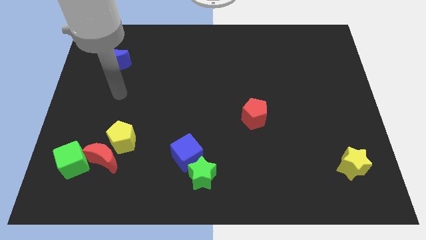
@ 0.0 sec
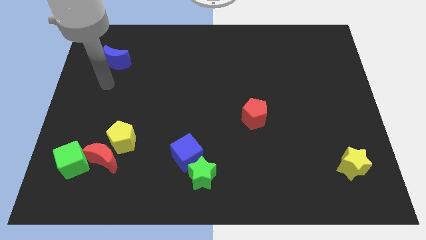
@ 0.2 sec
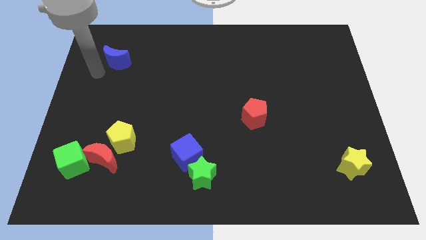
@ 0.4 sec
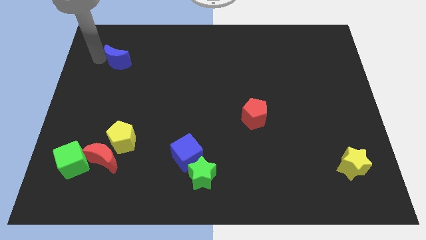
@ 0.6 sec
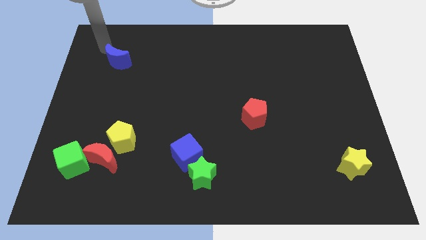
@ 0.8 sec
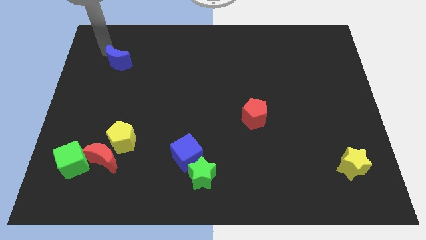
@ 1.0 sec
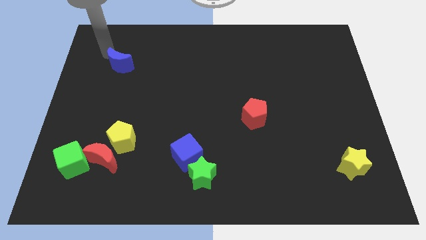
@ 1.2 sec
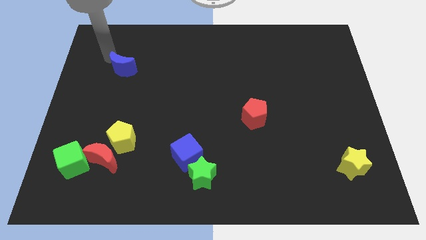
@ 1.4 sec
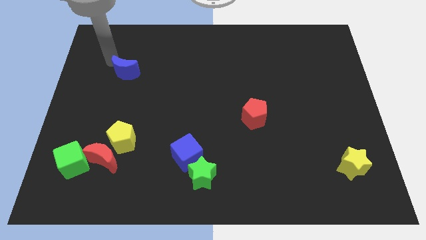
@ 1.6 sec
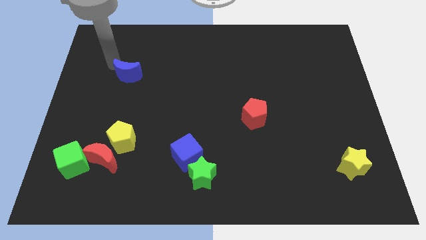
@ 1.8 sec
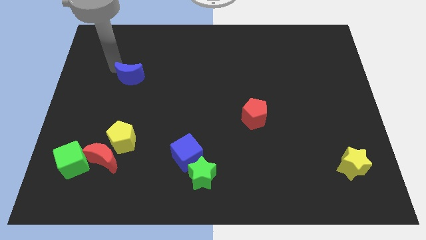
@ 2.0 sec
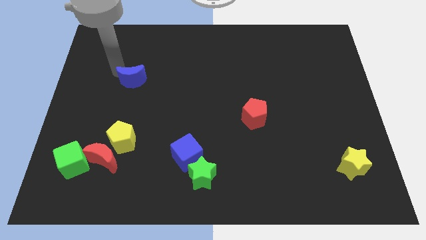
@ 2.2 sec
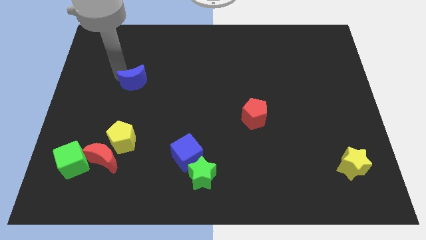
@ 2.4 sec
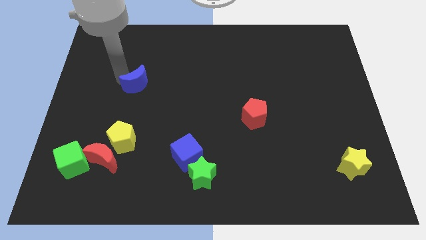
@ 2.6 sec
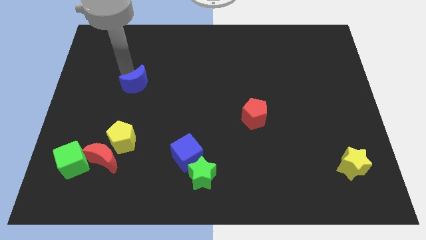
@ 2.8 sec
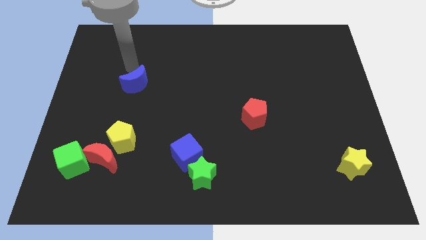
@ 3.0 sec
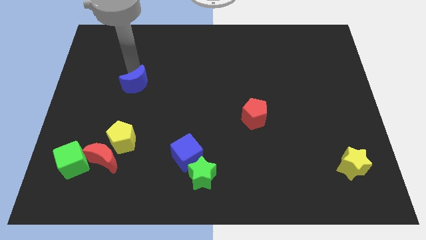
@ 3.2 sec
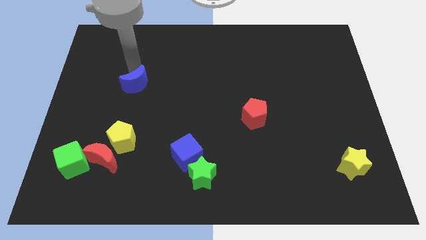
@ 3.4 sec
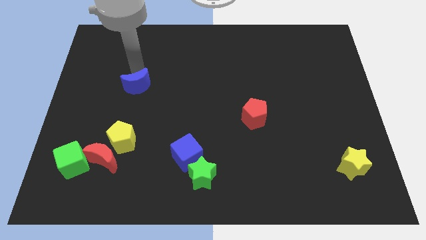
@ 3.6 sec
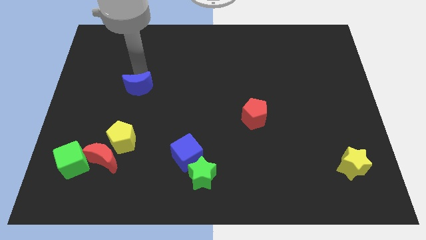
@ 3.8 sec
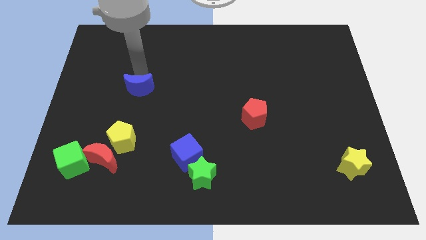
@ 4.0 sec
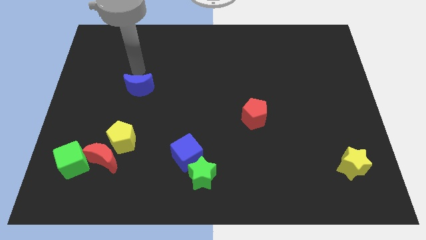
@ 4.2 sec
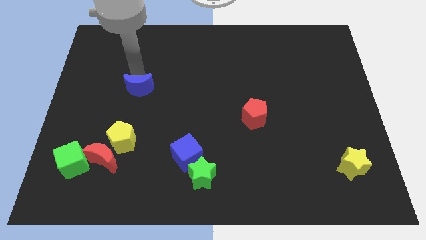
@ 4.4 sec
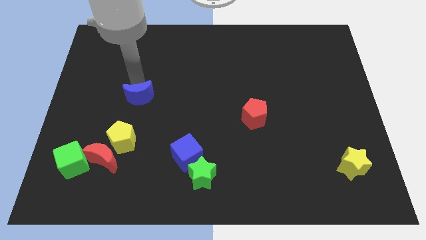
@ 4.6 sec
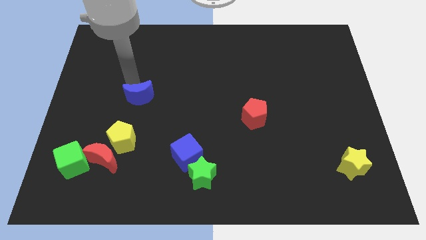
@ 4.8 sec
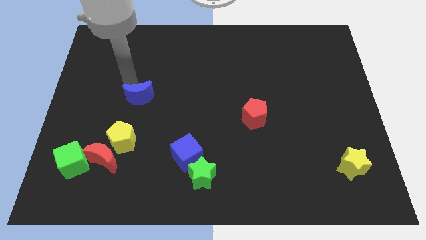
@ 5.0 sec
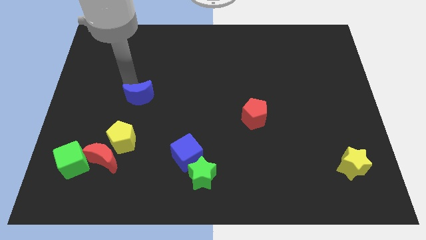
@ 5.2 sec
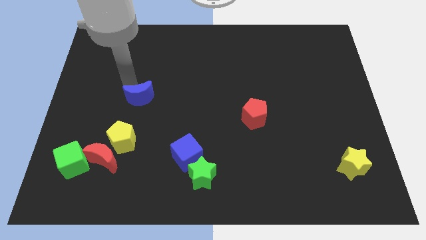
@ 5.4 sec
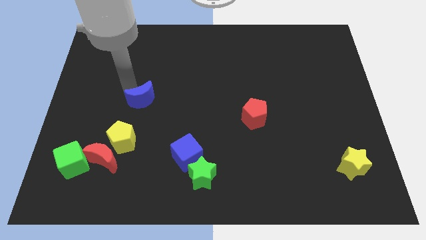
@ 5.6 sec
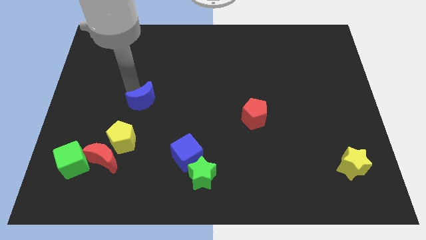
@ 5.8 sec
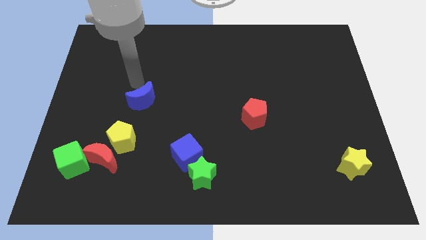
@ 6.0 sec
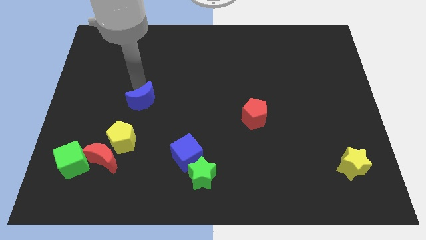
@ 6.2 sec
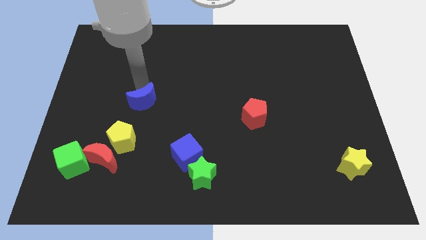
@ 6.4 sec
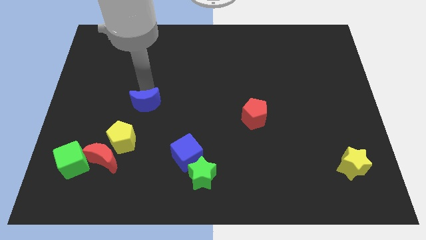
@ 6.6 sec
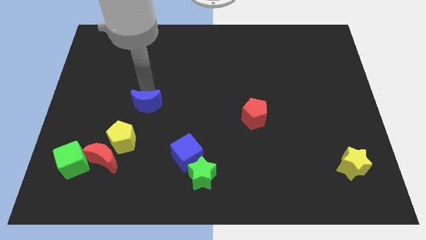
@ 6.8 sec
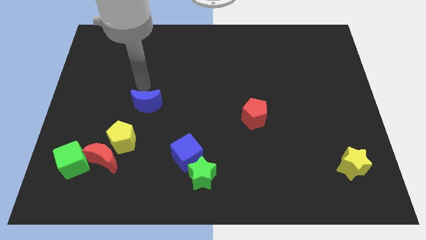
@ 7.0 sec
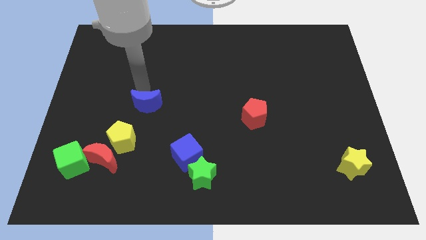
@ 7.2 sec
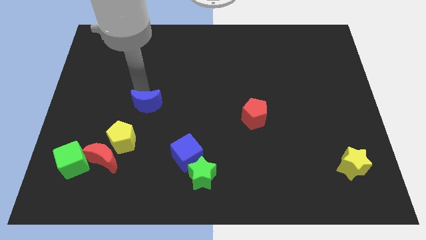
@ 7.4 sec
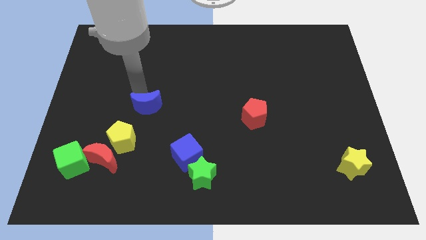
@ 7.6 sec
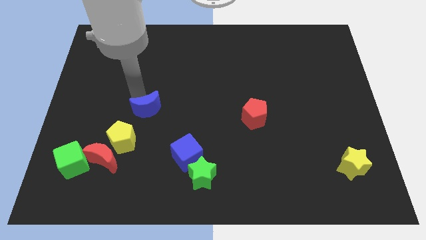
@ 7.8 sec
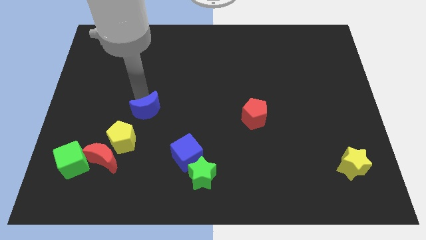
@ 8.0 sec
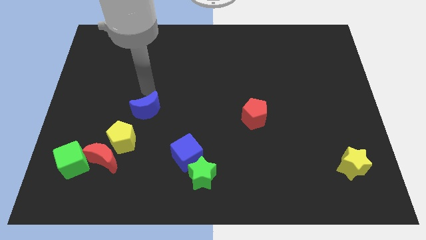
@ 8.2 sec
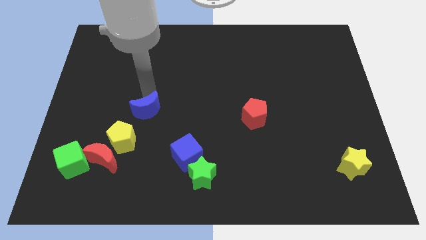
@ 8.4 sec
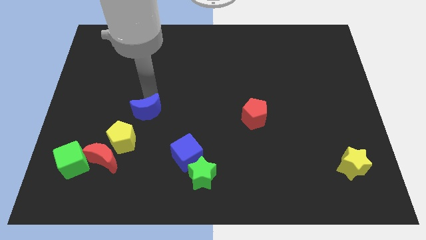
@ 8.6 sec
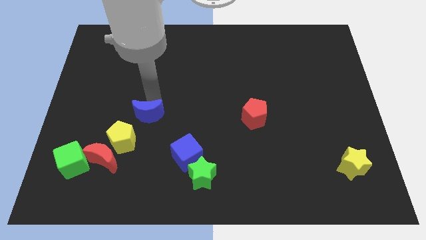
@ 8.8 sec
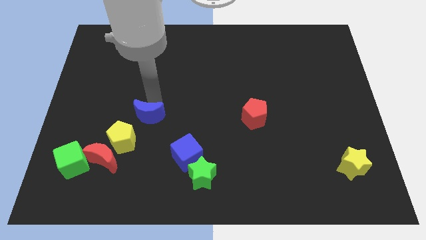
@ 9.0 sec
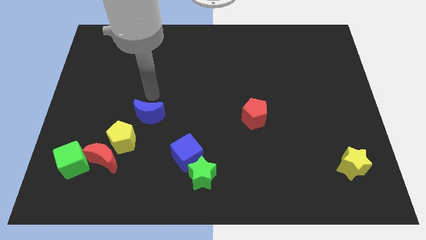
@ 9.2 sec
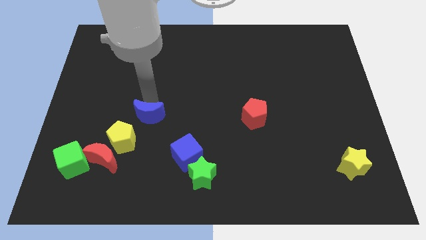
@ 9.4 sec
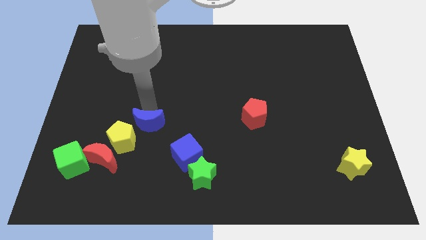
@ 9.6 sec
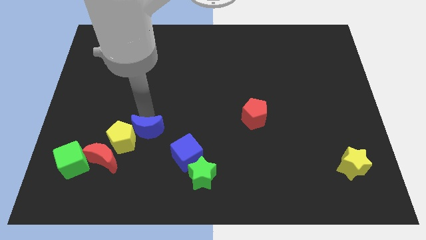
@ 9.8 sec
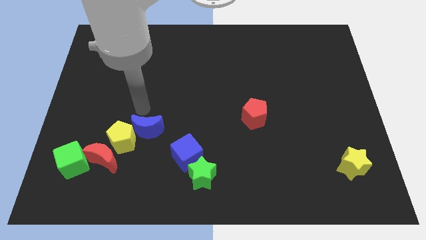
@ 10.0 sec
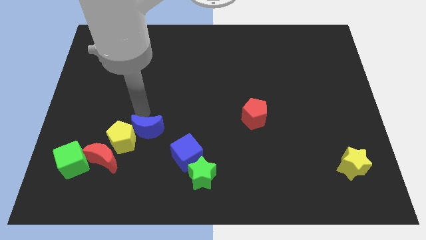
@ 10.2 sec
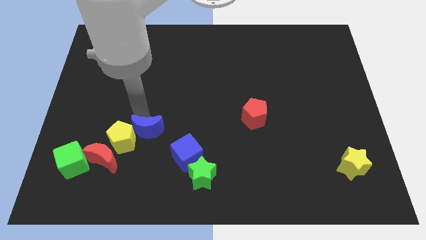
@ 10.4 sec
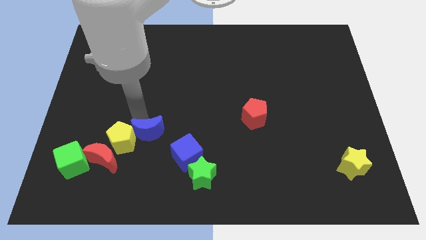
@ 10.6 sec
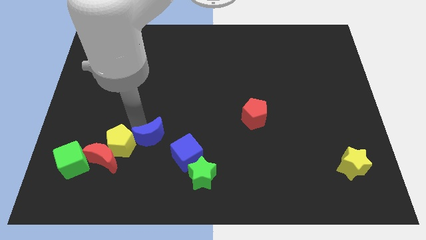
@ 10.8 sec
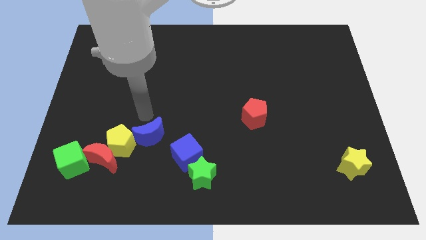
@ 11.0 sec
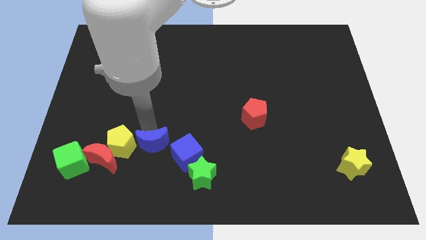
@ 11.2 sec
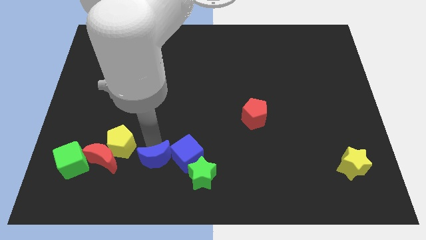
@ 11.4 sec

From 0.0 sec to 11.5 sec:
move the blue moon to the bottom left side of the blue cube

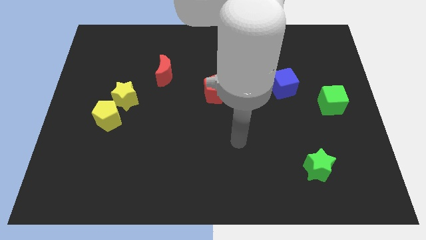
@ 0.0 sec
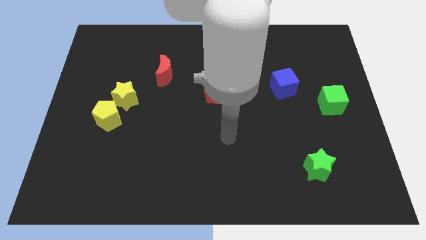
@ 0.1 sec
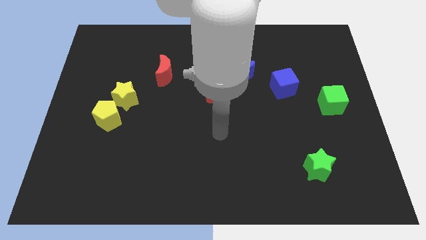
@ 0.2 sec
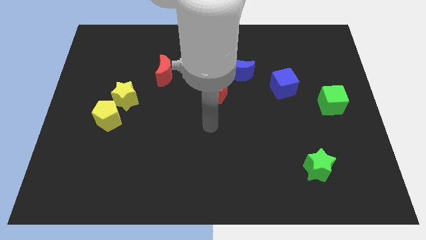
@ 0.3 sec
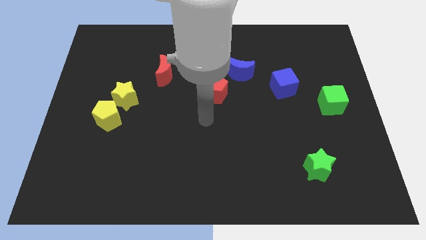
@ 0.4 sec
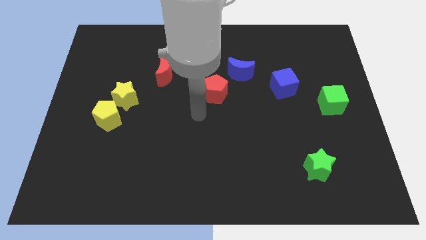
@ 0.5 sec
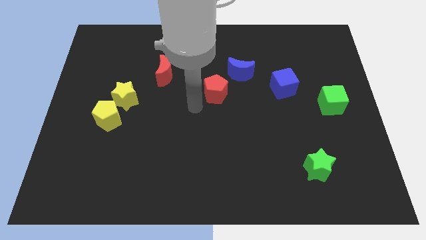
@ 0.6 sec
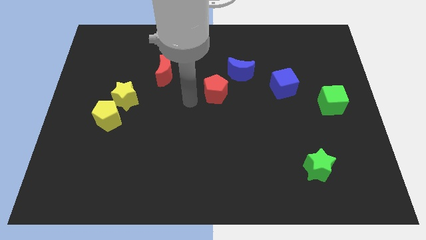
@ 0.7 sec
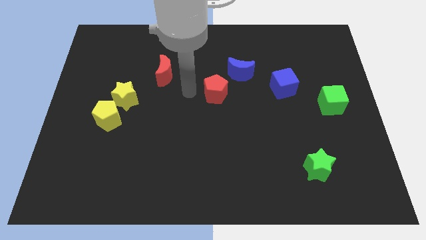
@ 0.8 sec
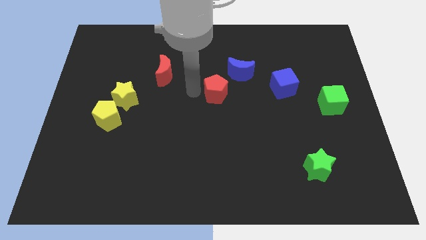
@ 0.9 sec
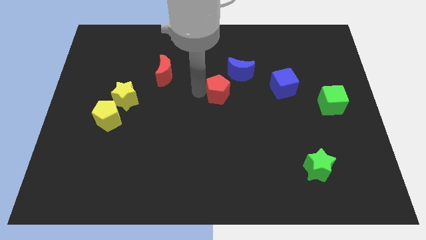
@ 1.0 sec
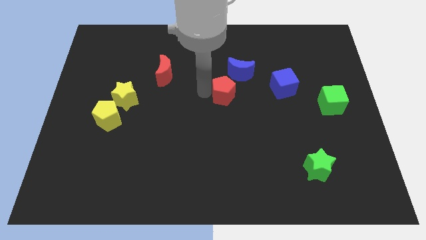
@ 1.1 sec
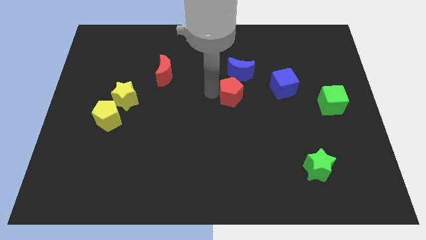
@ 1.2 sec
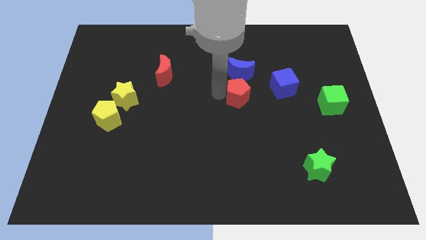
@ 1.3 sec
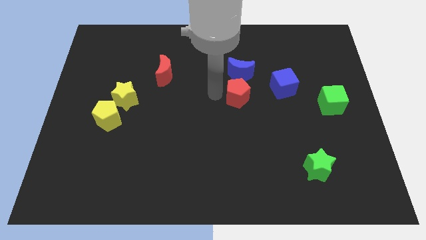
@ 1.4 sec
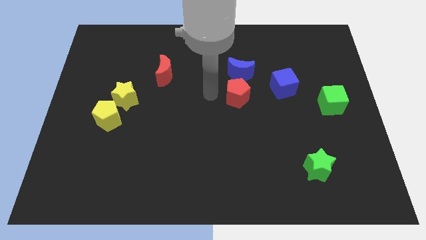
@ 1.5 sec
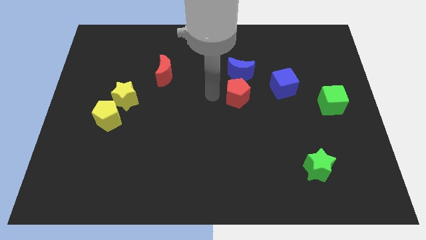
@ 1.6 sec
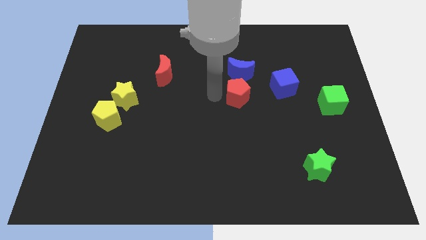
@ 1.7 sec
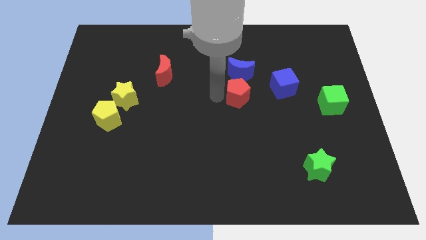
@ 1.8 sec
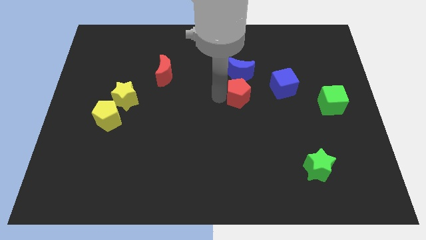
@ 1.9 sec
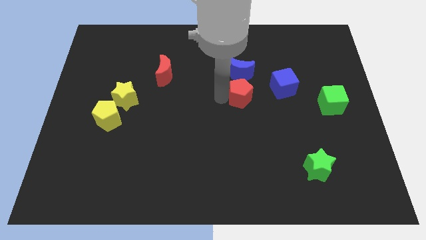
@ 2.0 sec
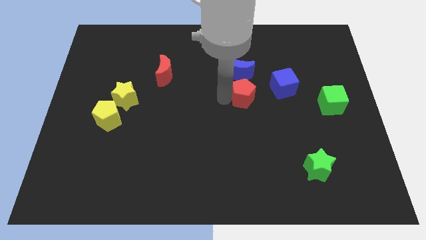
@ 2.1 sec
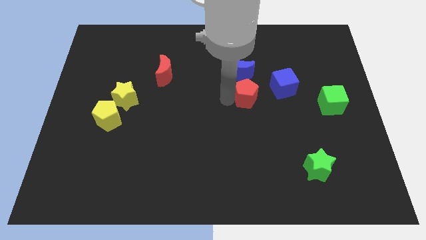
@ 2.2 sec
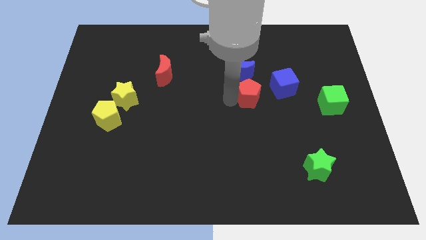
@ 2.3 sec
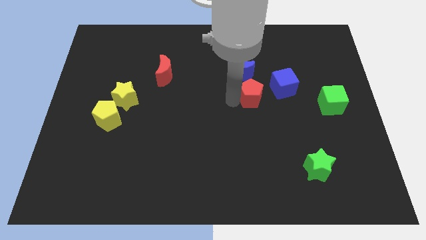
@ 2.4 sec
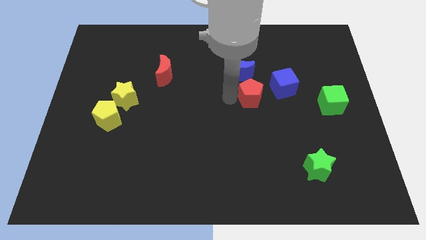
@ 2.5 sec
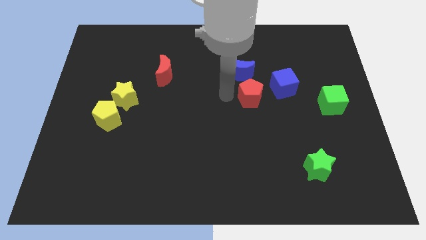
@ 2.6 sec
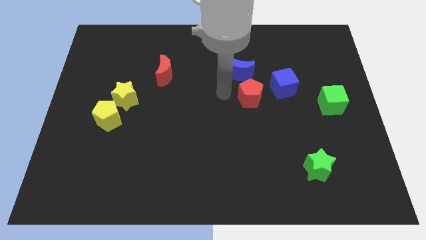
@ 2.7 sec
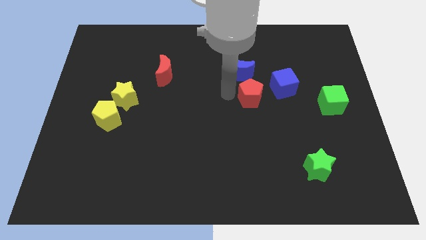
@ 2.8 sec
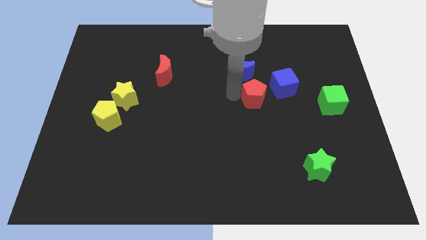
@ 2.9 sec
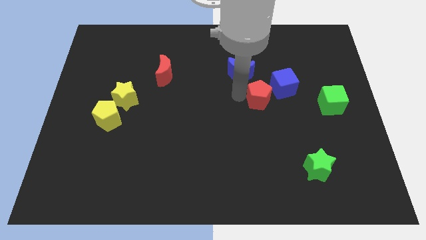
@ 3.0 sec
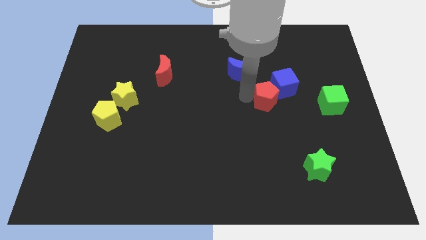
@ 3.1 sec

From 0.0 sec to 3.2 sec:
push the red pentagon left of the green cube
